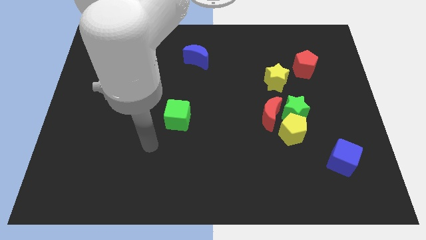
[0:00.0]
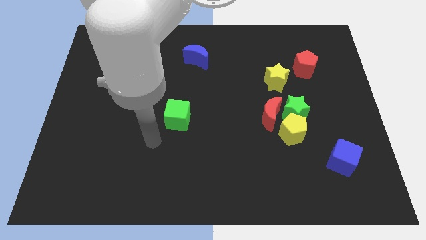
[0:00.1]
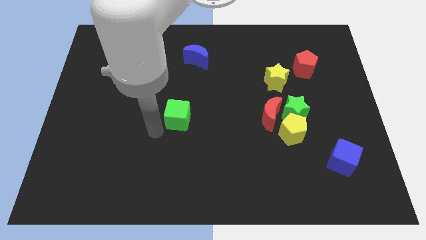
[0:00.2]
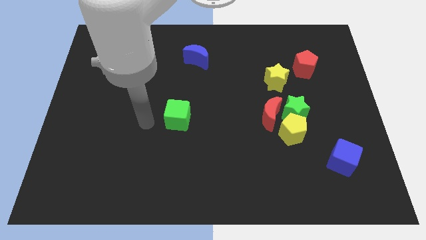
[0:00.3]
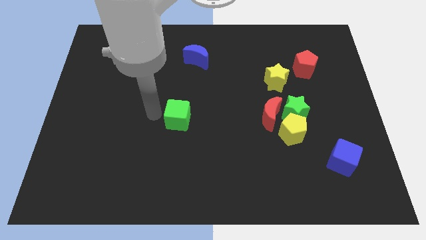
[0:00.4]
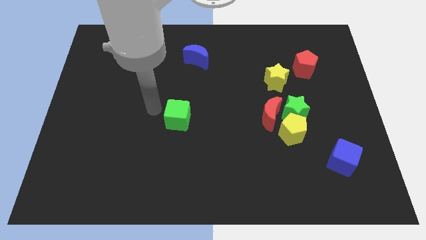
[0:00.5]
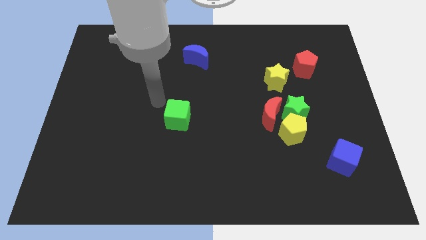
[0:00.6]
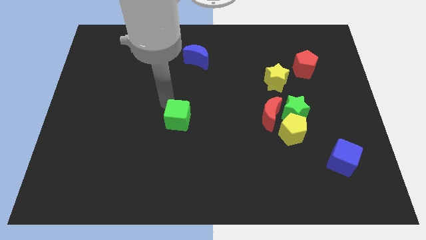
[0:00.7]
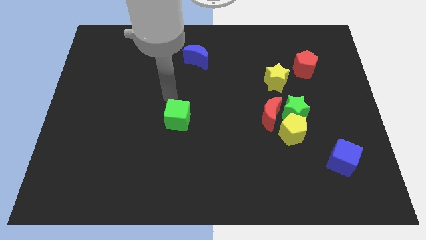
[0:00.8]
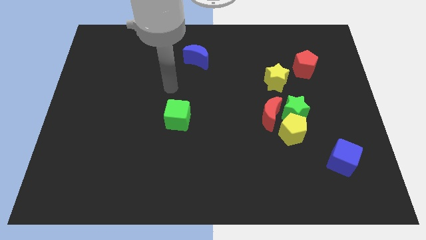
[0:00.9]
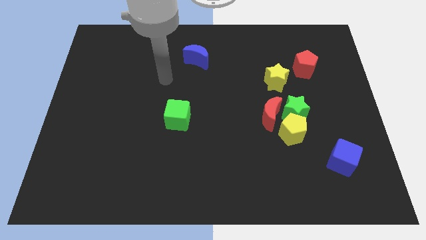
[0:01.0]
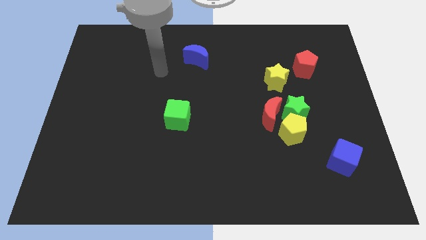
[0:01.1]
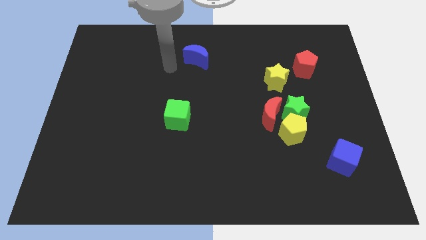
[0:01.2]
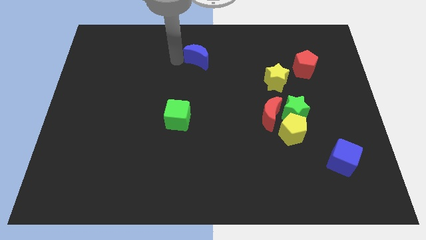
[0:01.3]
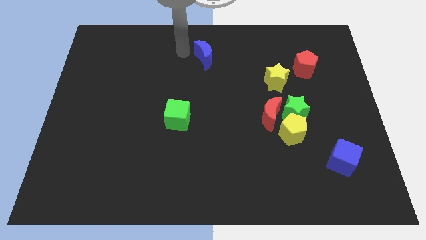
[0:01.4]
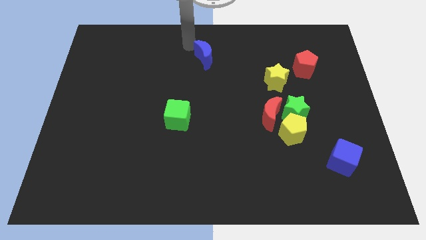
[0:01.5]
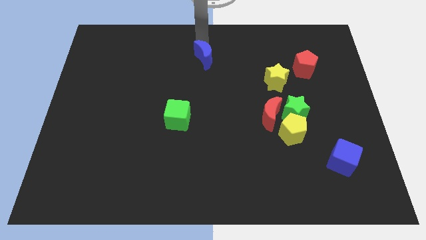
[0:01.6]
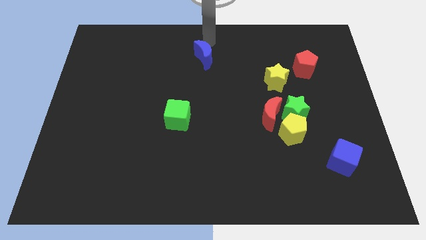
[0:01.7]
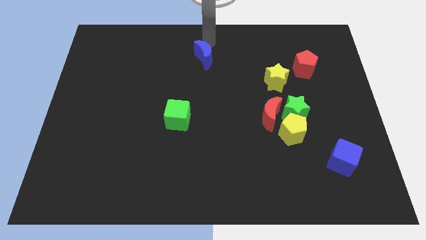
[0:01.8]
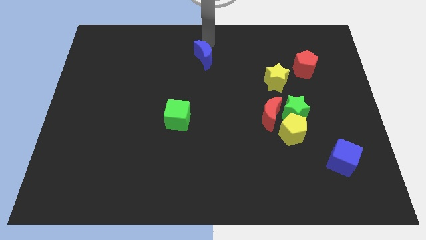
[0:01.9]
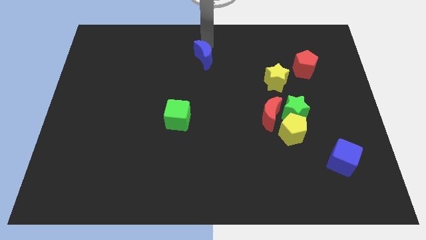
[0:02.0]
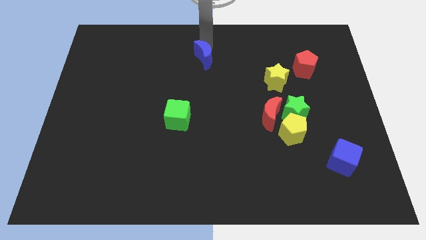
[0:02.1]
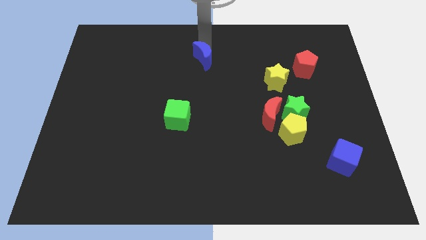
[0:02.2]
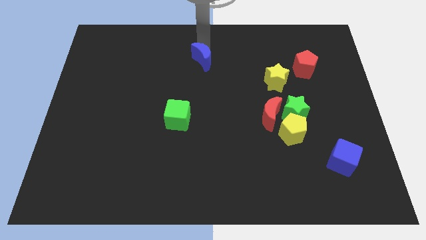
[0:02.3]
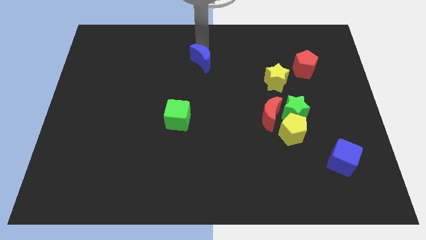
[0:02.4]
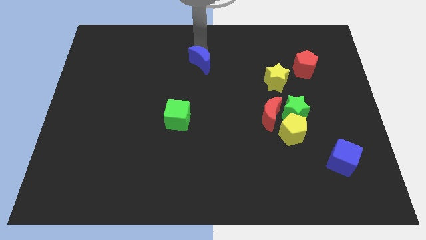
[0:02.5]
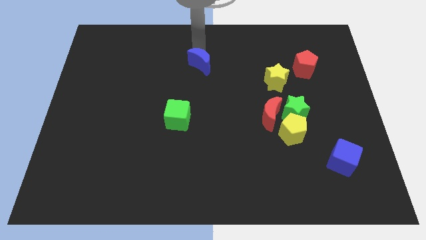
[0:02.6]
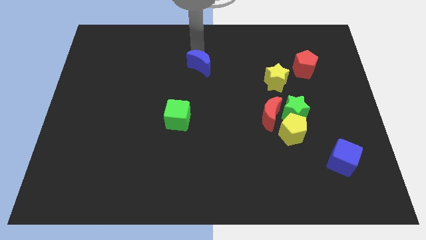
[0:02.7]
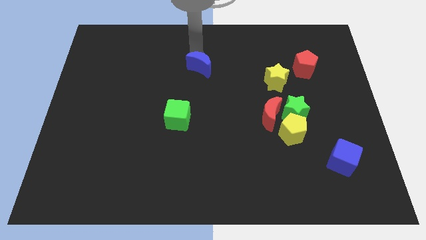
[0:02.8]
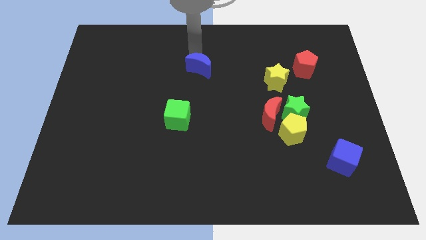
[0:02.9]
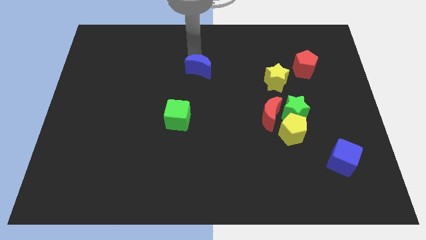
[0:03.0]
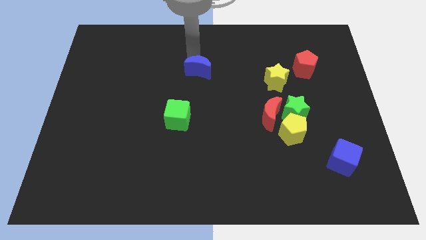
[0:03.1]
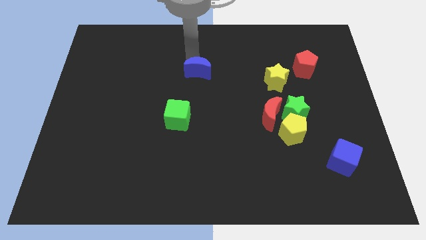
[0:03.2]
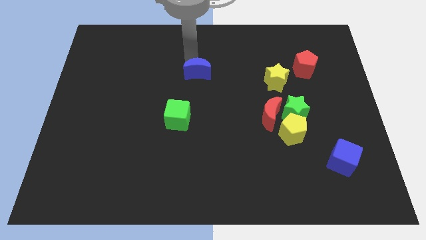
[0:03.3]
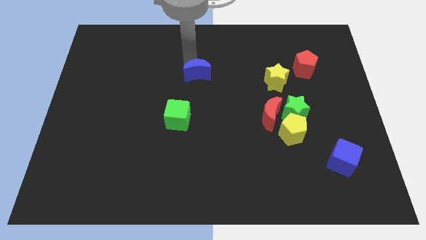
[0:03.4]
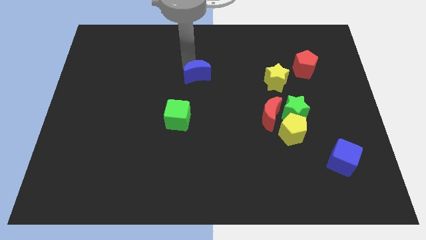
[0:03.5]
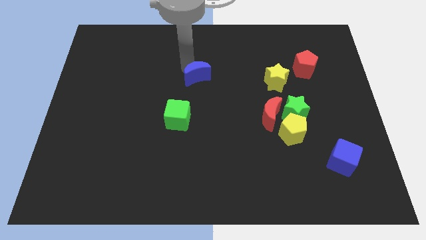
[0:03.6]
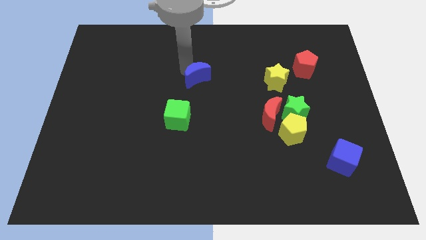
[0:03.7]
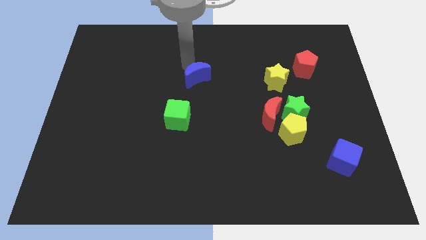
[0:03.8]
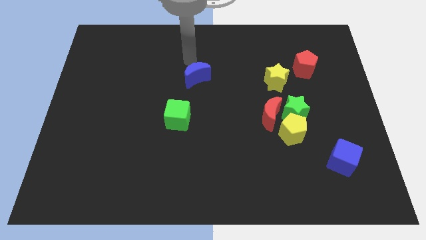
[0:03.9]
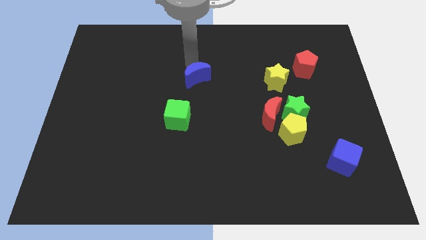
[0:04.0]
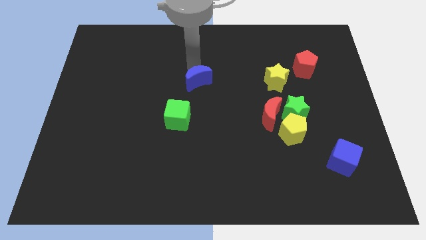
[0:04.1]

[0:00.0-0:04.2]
slightly push the blue moon down

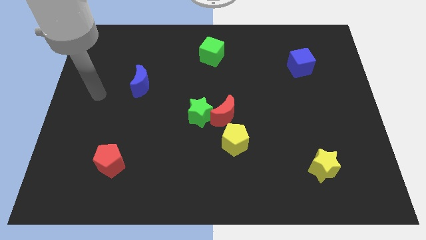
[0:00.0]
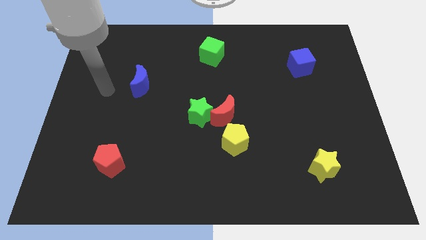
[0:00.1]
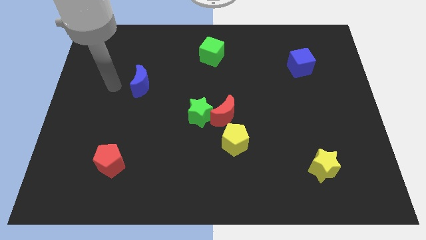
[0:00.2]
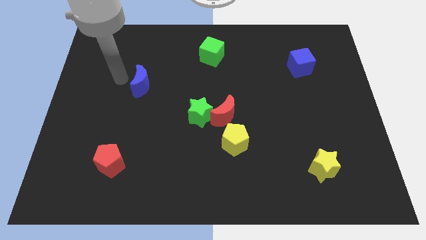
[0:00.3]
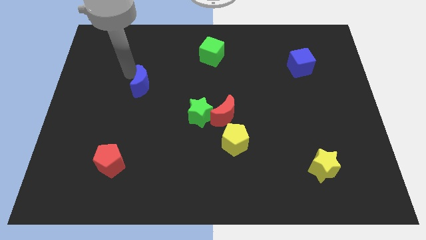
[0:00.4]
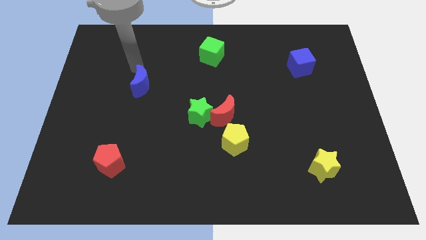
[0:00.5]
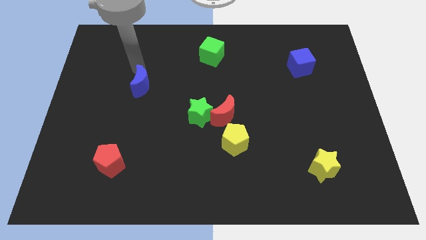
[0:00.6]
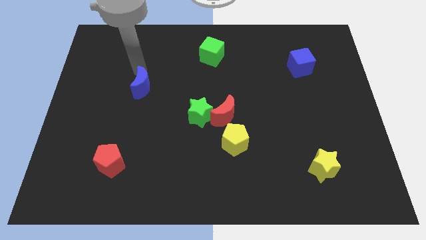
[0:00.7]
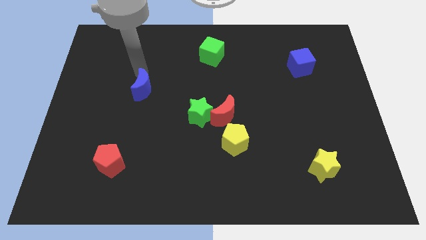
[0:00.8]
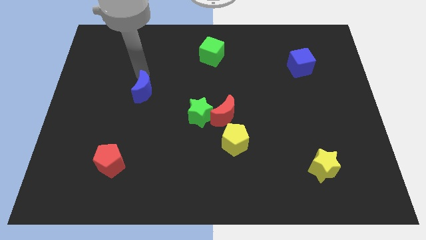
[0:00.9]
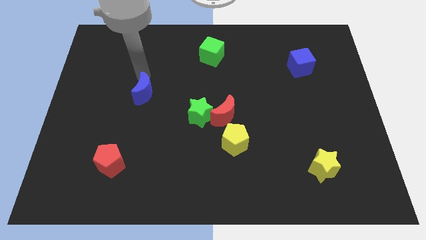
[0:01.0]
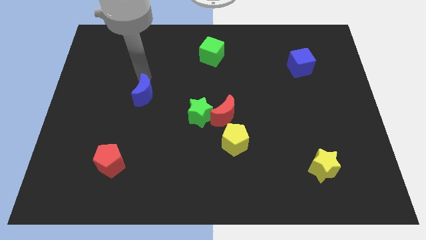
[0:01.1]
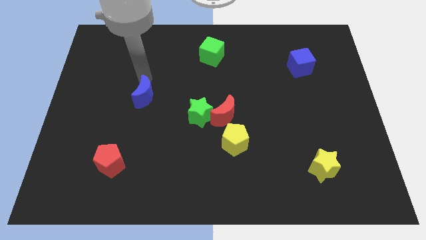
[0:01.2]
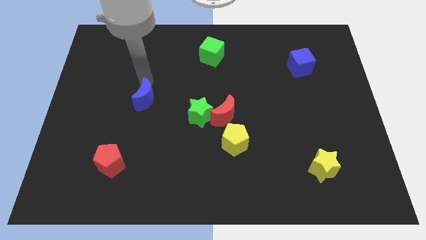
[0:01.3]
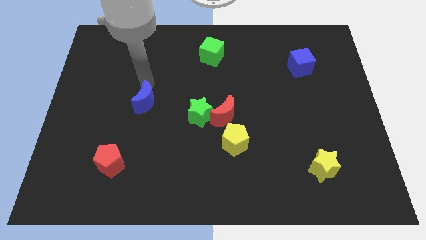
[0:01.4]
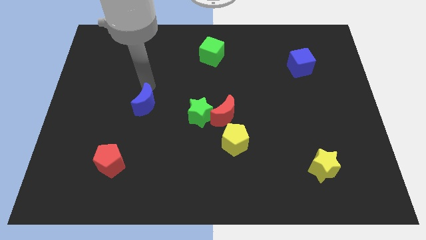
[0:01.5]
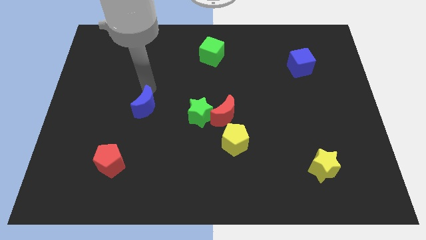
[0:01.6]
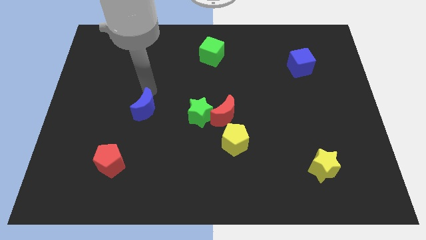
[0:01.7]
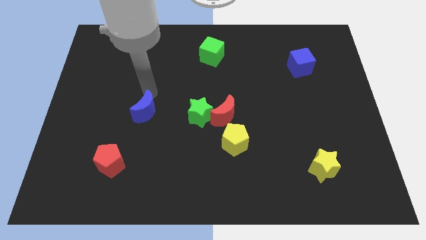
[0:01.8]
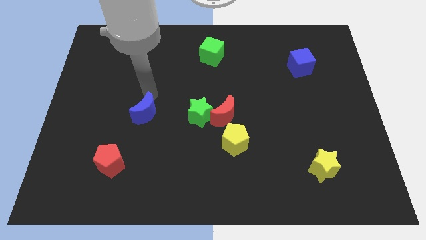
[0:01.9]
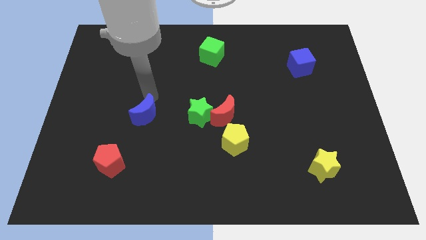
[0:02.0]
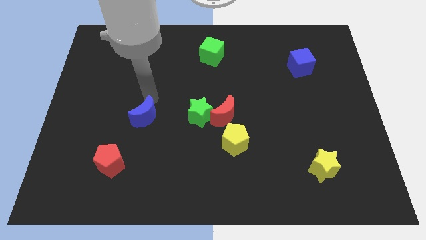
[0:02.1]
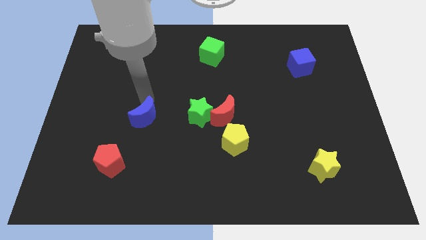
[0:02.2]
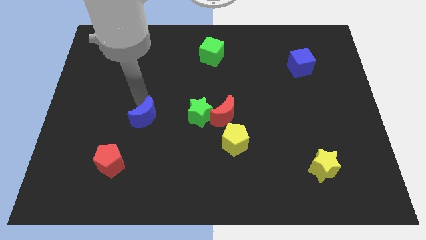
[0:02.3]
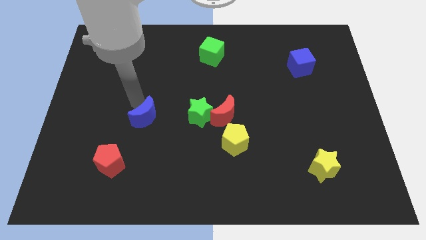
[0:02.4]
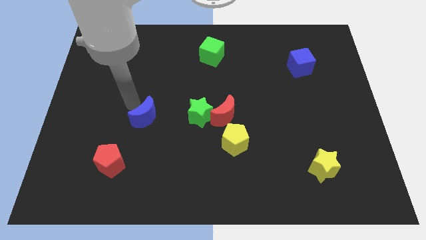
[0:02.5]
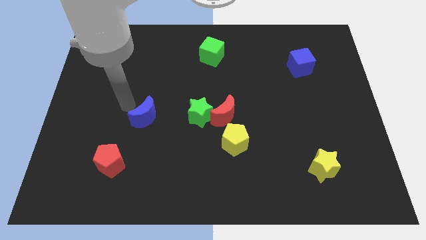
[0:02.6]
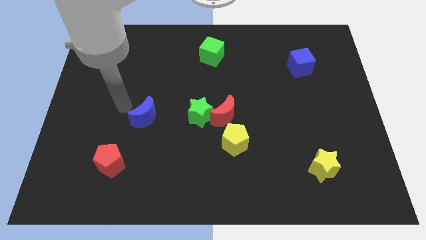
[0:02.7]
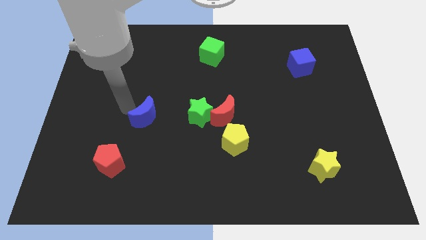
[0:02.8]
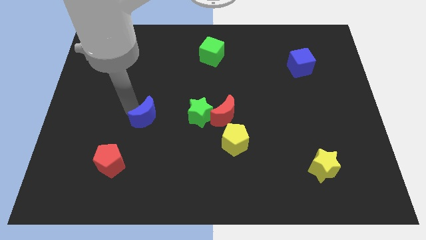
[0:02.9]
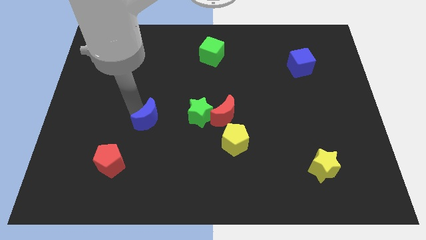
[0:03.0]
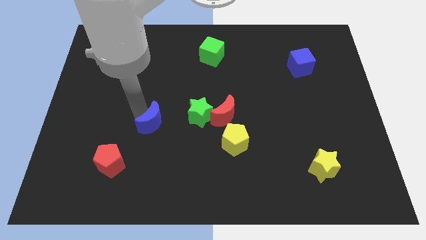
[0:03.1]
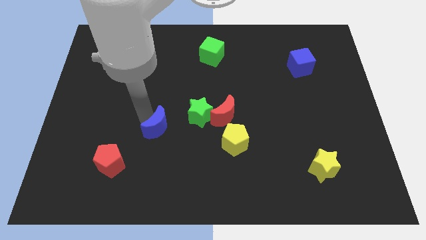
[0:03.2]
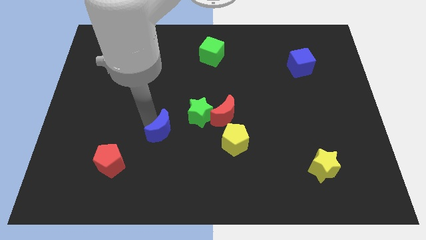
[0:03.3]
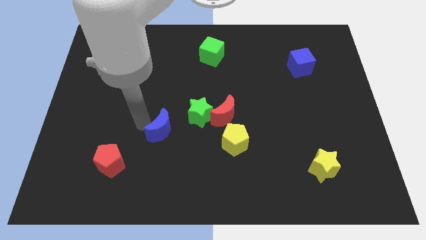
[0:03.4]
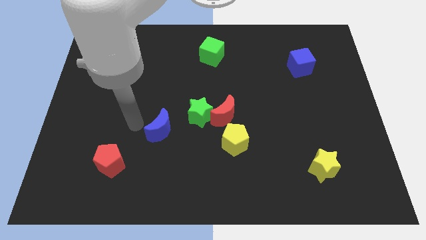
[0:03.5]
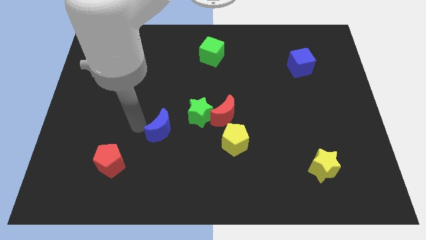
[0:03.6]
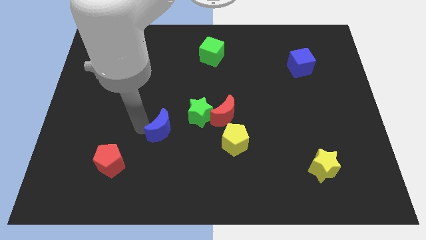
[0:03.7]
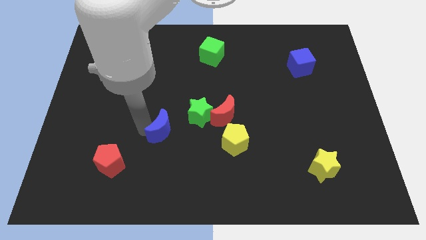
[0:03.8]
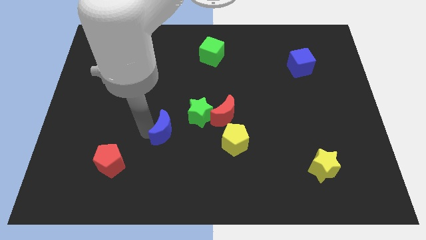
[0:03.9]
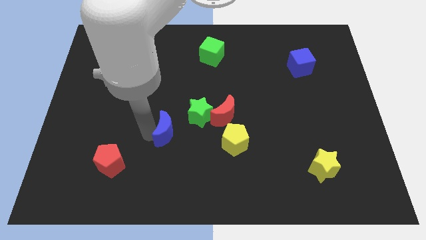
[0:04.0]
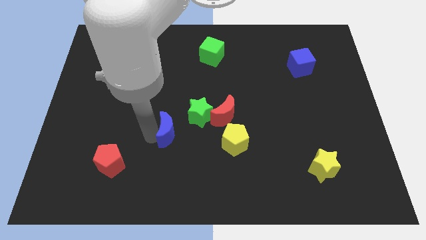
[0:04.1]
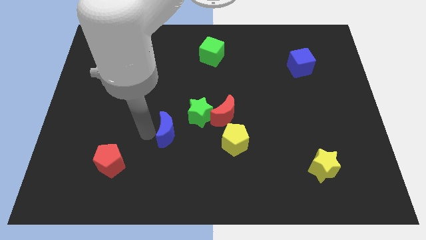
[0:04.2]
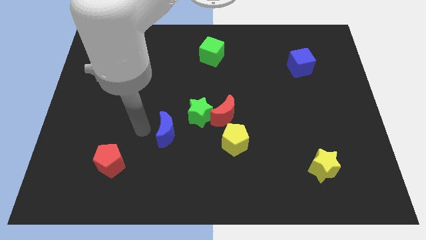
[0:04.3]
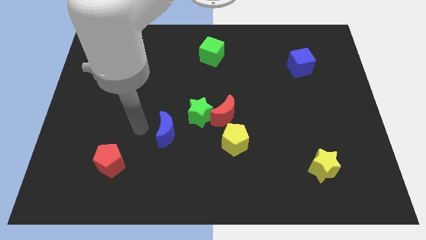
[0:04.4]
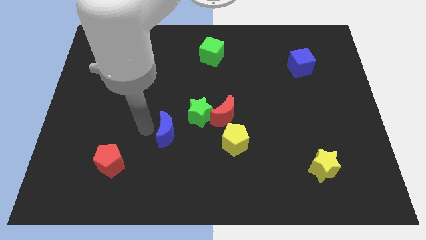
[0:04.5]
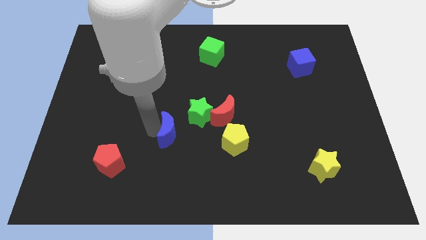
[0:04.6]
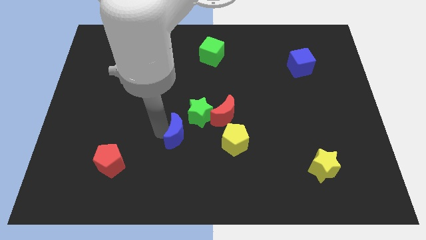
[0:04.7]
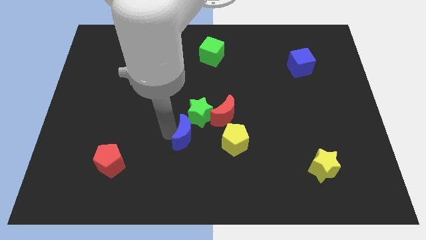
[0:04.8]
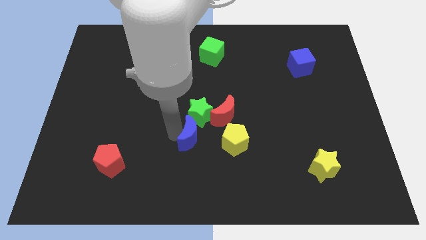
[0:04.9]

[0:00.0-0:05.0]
slide the blue moon down and right
